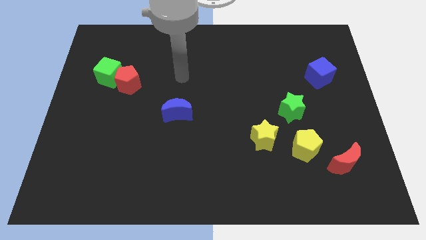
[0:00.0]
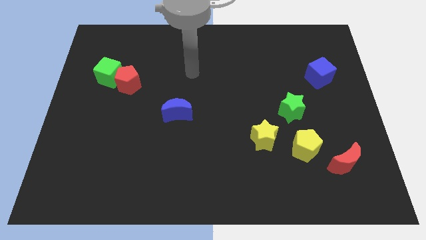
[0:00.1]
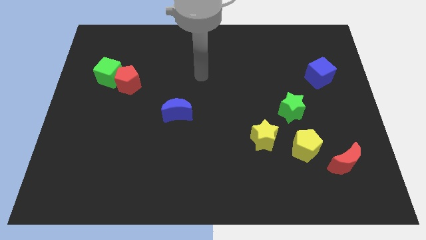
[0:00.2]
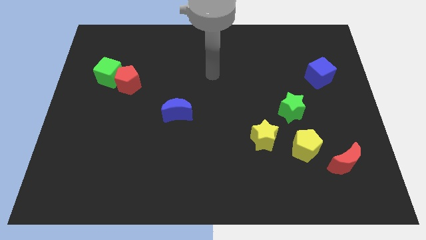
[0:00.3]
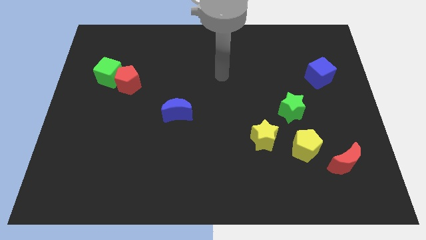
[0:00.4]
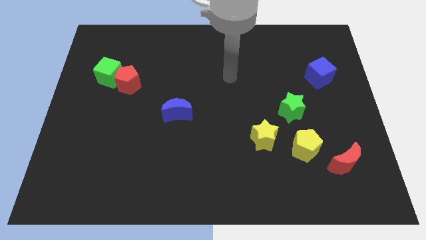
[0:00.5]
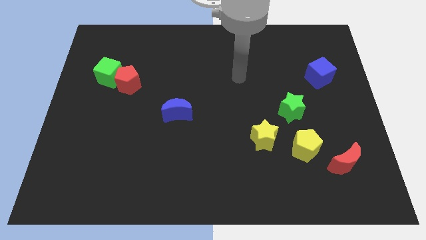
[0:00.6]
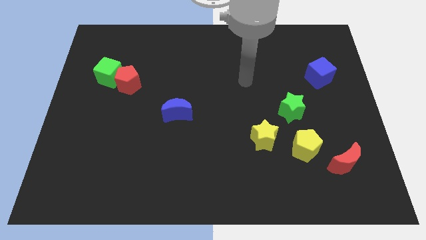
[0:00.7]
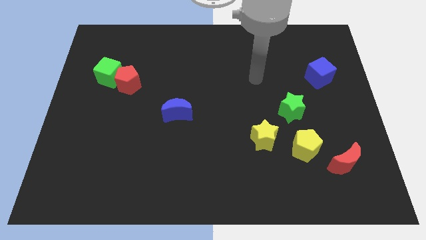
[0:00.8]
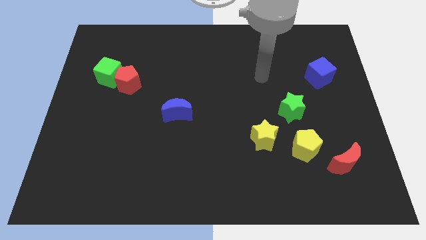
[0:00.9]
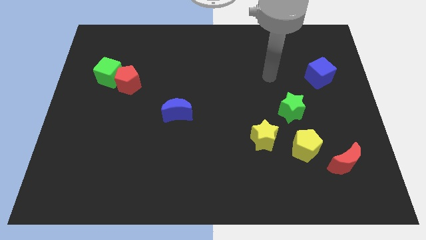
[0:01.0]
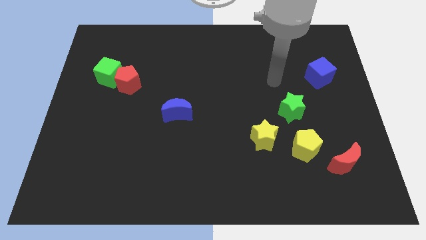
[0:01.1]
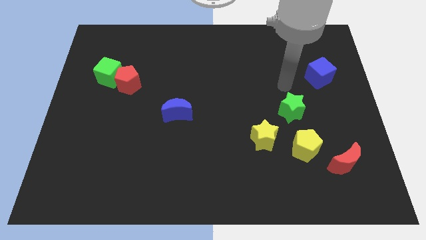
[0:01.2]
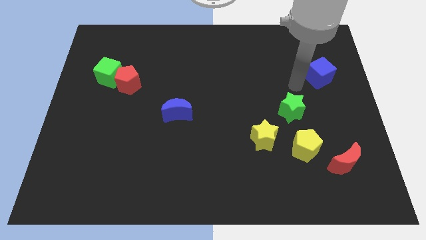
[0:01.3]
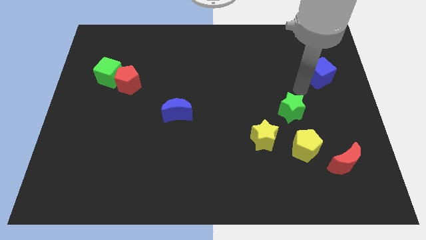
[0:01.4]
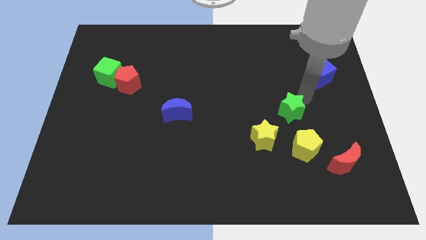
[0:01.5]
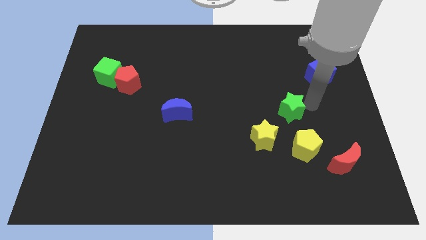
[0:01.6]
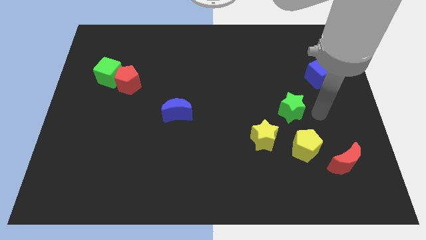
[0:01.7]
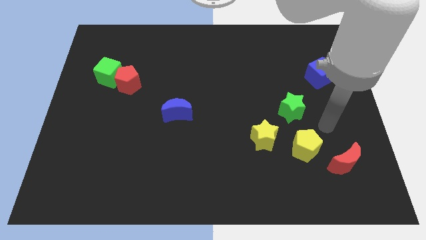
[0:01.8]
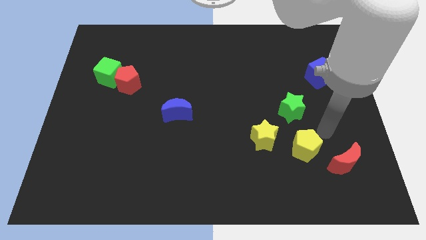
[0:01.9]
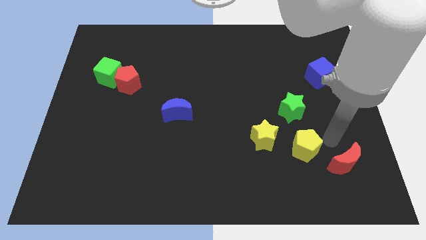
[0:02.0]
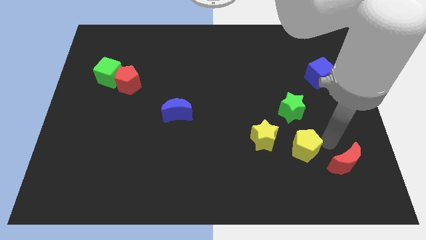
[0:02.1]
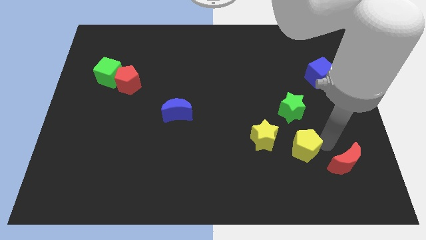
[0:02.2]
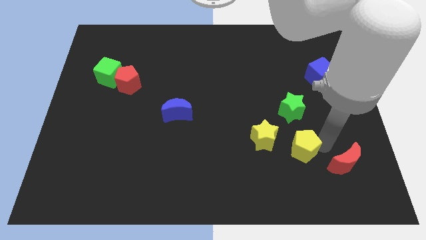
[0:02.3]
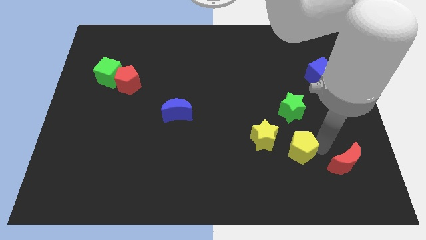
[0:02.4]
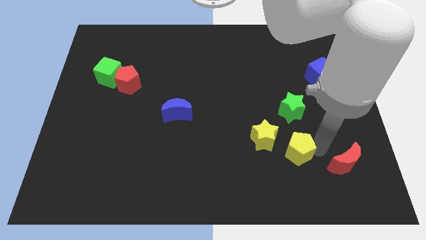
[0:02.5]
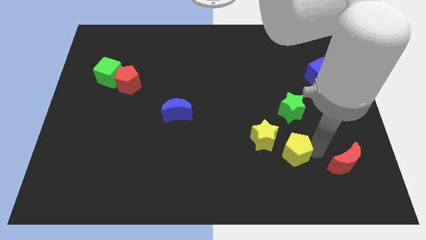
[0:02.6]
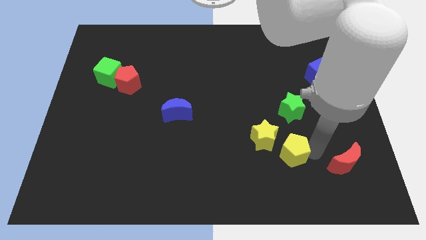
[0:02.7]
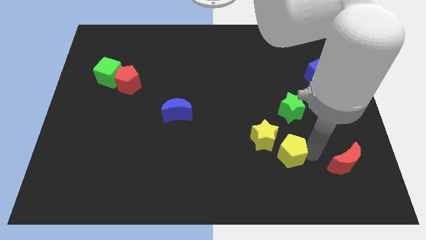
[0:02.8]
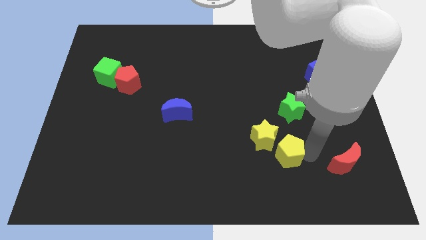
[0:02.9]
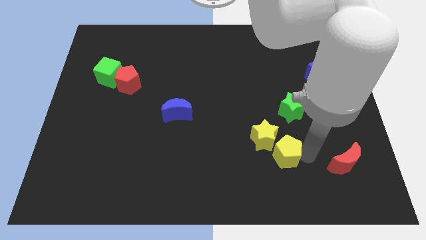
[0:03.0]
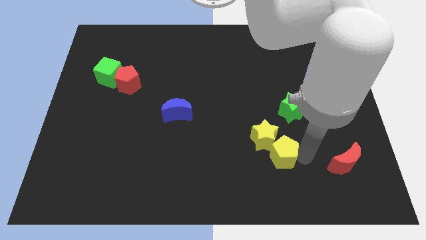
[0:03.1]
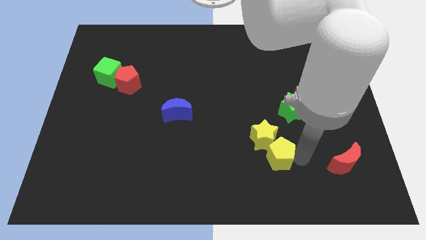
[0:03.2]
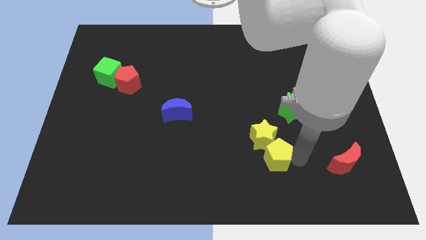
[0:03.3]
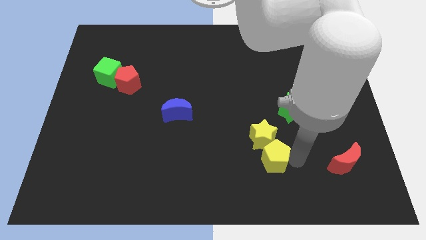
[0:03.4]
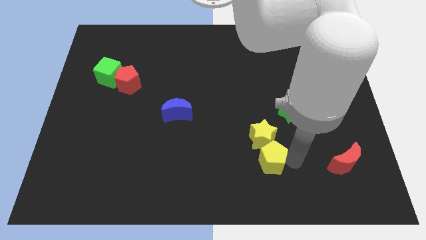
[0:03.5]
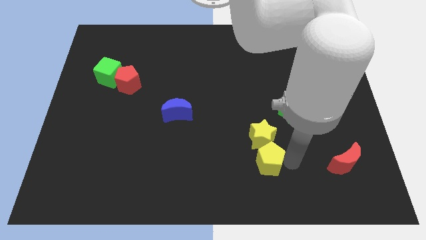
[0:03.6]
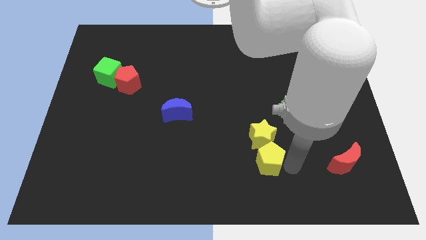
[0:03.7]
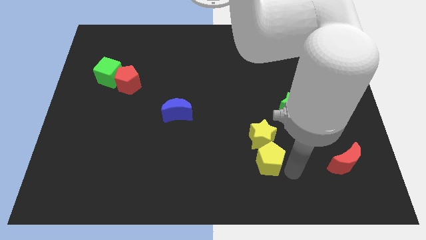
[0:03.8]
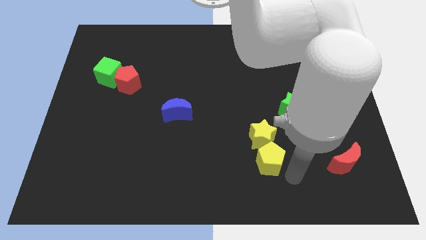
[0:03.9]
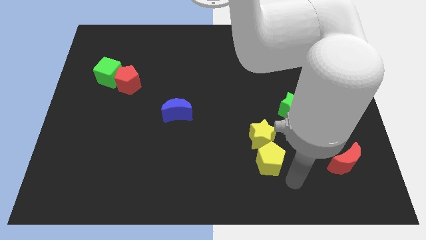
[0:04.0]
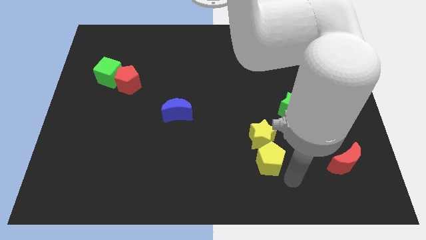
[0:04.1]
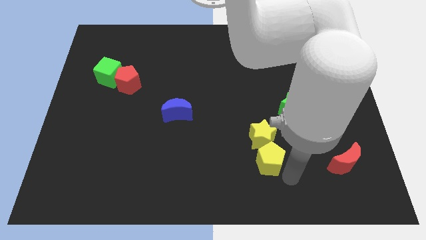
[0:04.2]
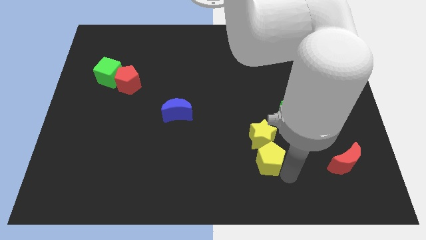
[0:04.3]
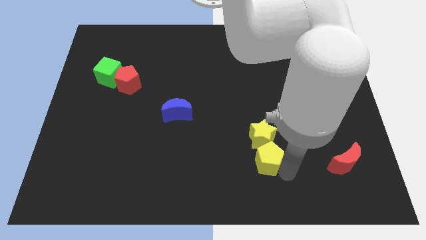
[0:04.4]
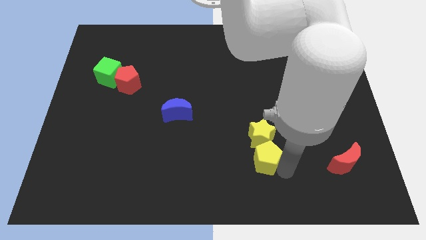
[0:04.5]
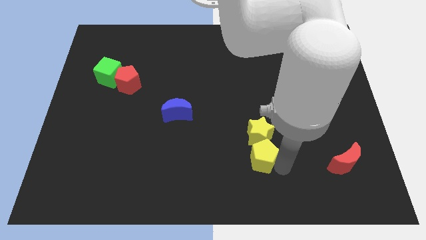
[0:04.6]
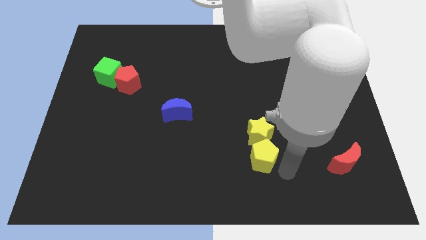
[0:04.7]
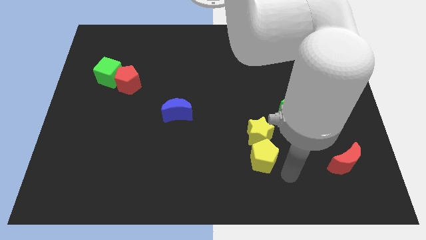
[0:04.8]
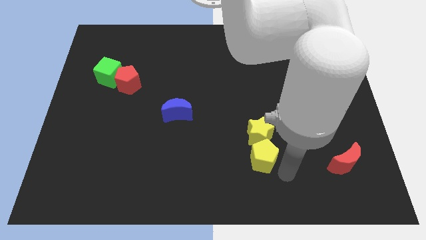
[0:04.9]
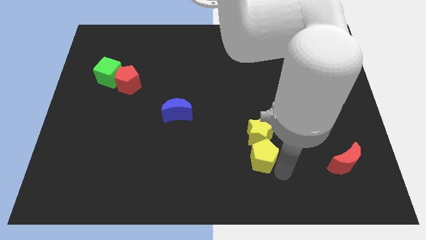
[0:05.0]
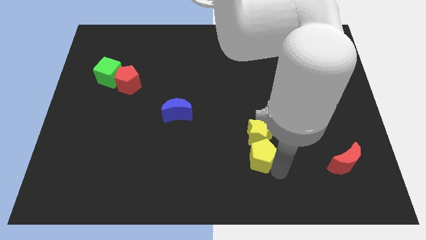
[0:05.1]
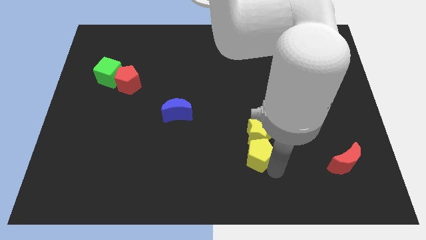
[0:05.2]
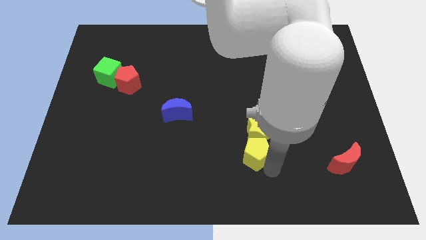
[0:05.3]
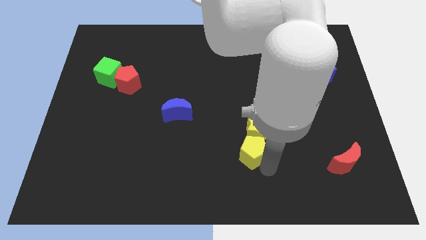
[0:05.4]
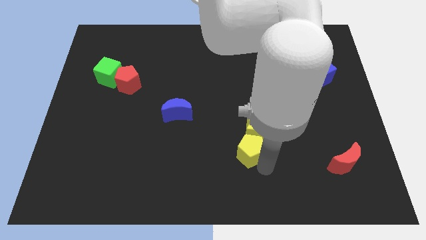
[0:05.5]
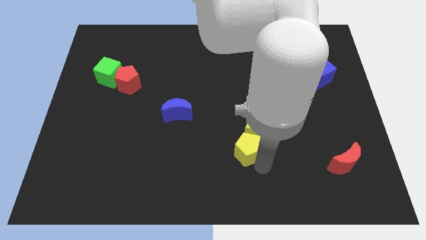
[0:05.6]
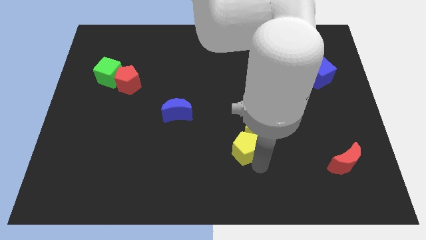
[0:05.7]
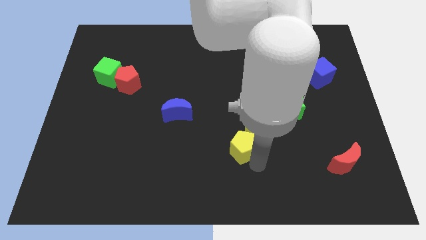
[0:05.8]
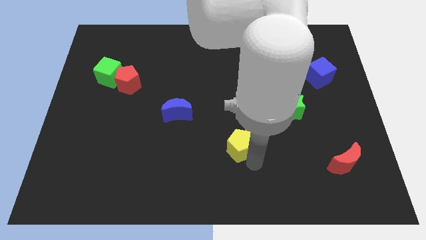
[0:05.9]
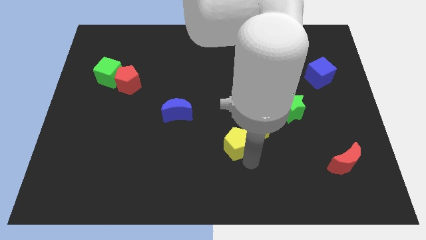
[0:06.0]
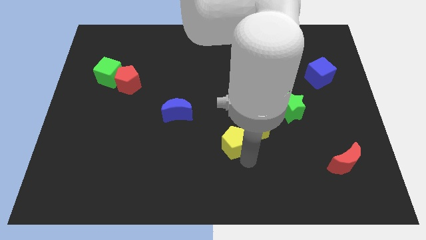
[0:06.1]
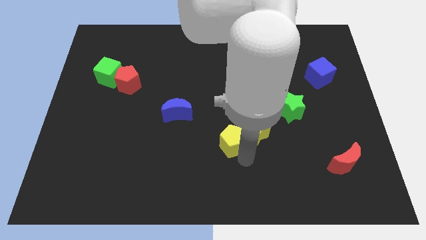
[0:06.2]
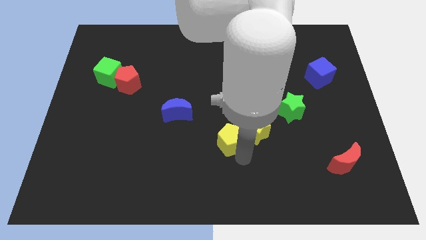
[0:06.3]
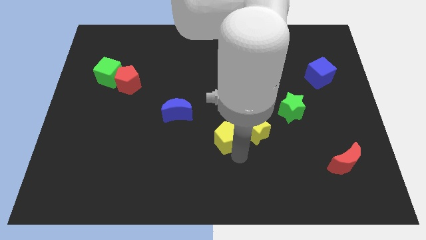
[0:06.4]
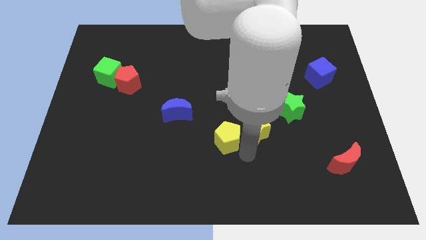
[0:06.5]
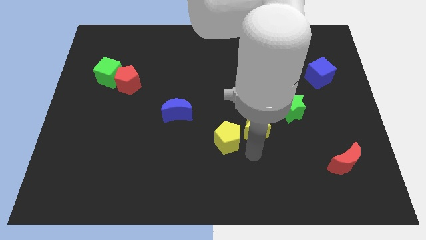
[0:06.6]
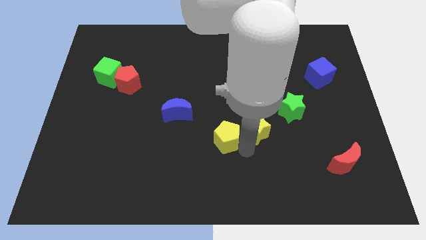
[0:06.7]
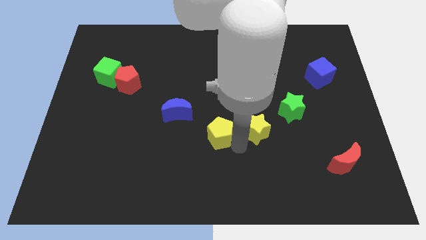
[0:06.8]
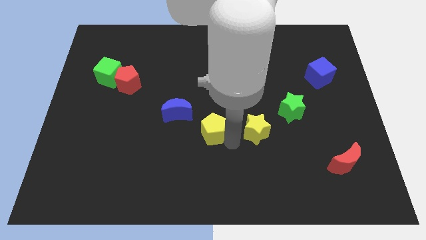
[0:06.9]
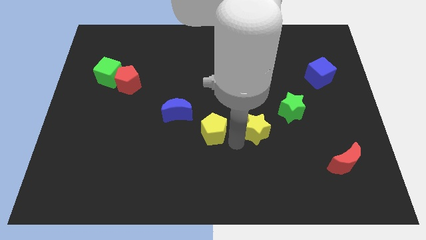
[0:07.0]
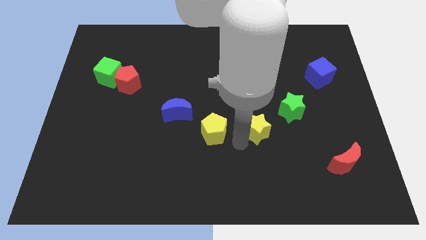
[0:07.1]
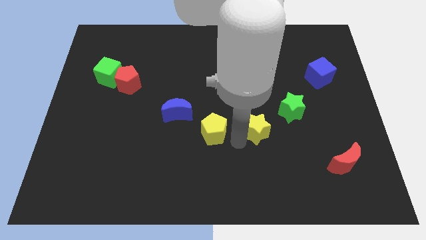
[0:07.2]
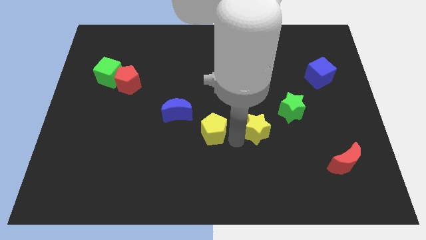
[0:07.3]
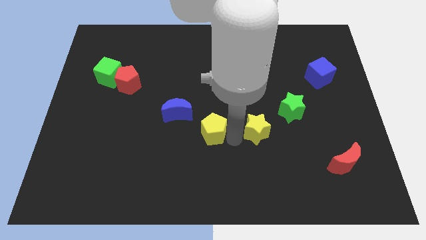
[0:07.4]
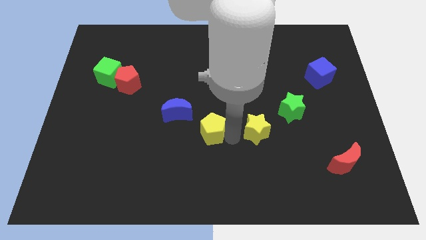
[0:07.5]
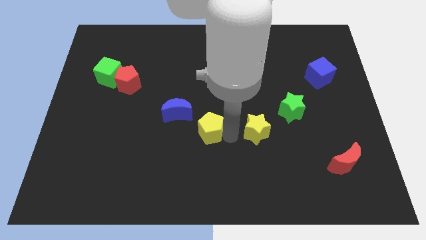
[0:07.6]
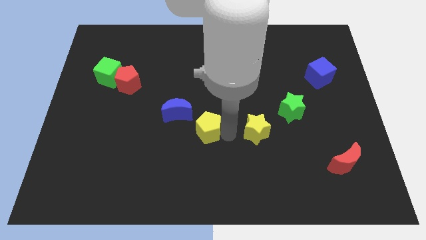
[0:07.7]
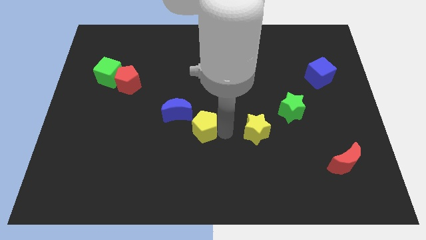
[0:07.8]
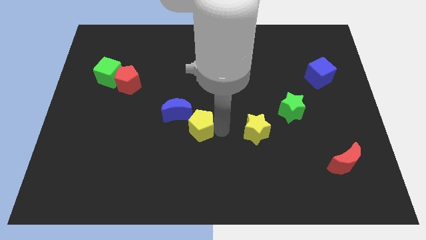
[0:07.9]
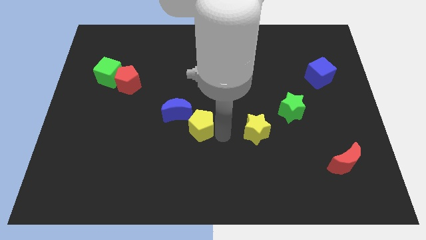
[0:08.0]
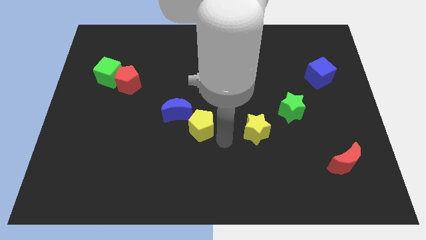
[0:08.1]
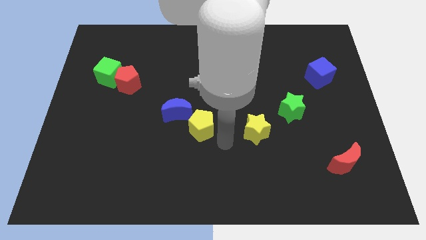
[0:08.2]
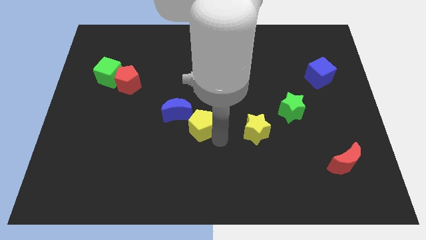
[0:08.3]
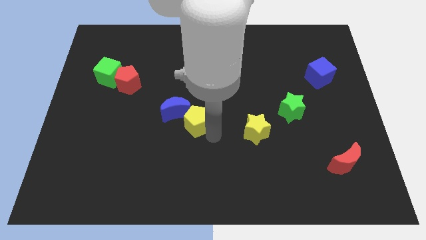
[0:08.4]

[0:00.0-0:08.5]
slide the yellow pentagon next to the blue moon
